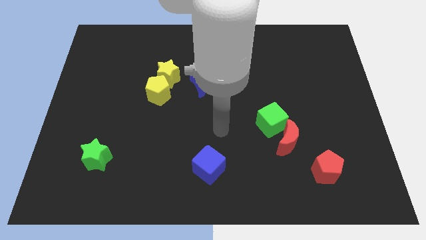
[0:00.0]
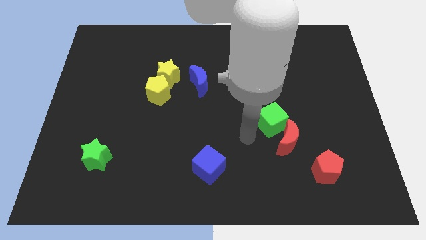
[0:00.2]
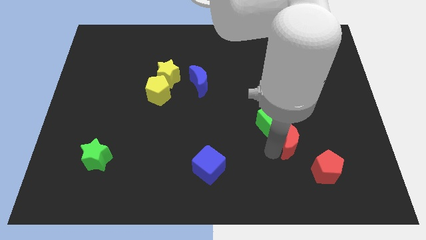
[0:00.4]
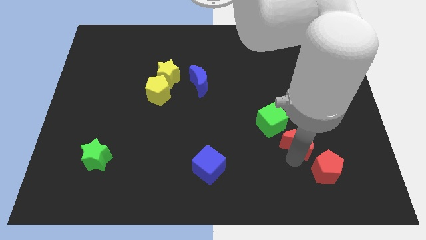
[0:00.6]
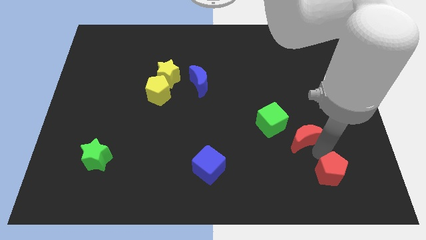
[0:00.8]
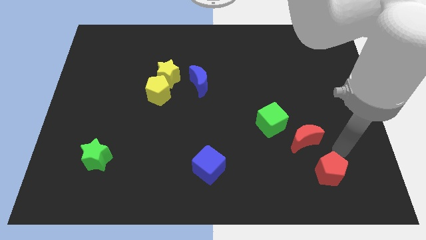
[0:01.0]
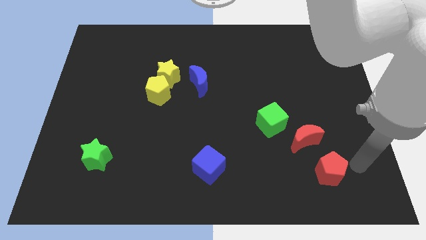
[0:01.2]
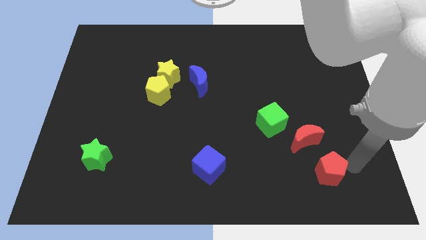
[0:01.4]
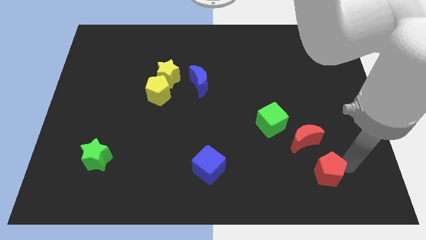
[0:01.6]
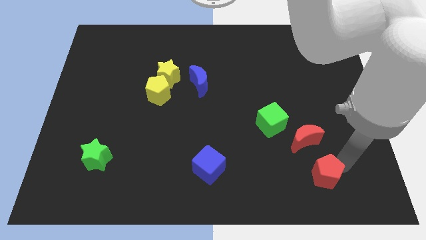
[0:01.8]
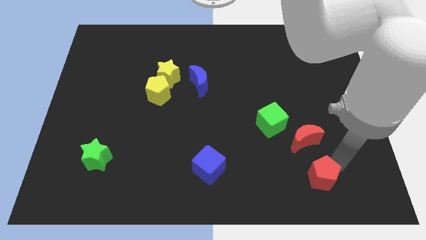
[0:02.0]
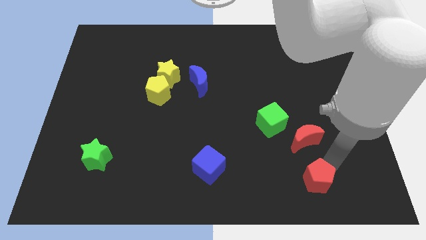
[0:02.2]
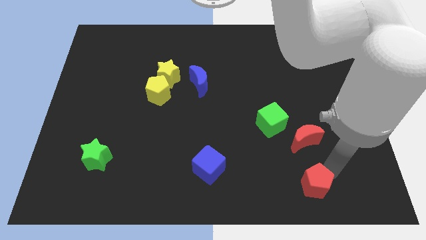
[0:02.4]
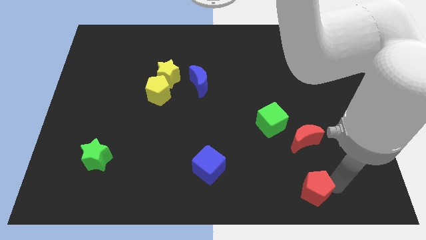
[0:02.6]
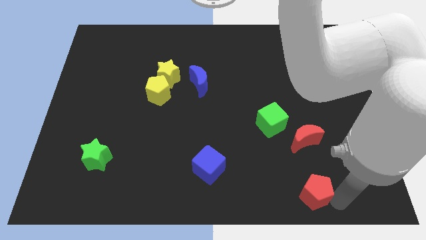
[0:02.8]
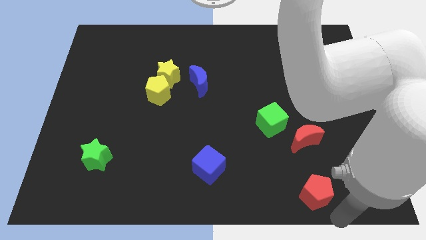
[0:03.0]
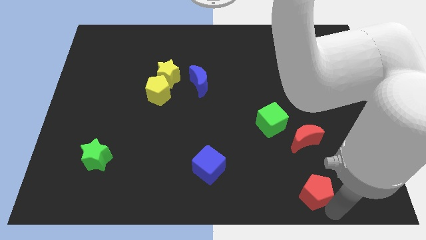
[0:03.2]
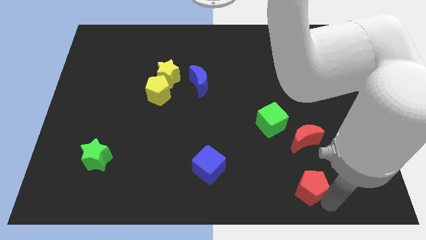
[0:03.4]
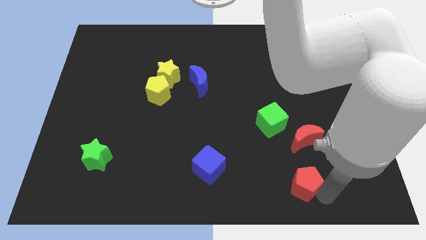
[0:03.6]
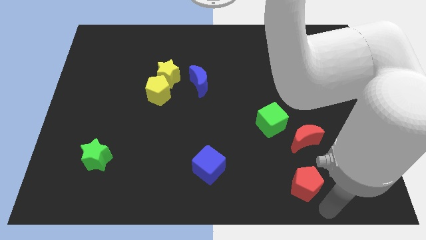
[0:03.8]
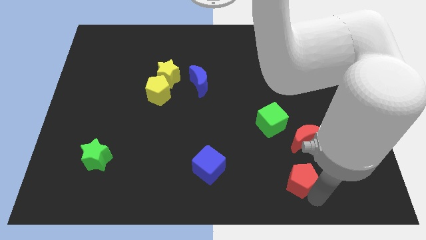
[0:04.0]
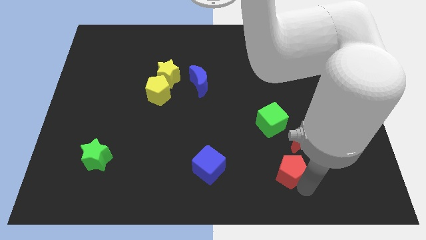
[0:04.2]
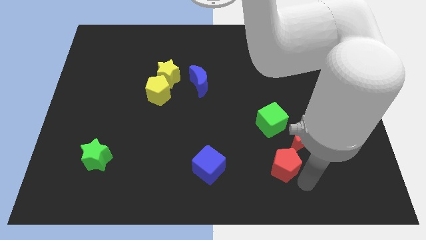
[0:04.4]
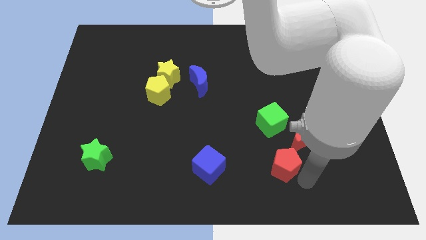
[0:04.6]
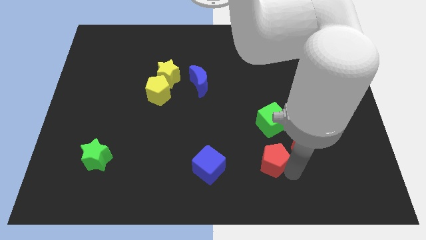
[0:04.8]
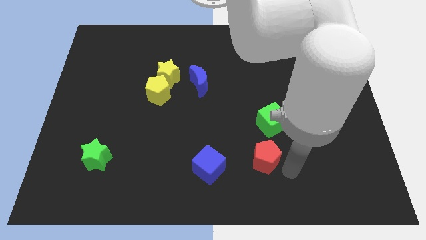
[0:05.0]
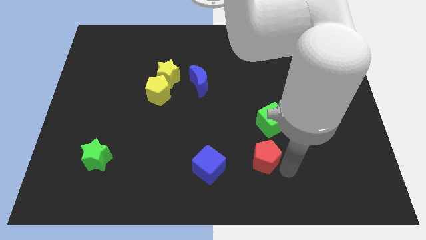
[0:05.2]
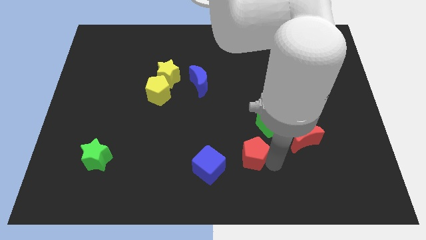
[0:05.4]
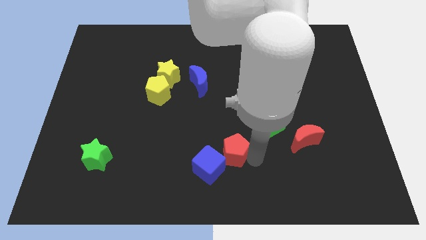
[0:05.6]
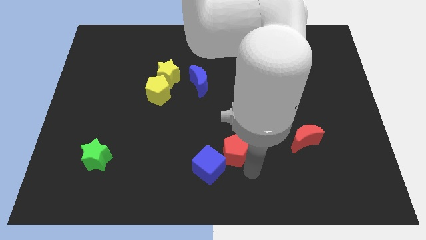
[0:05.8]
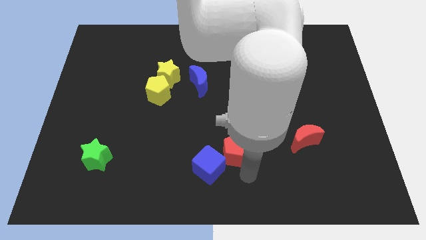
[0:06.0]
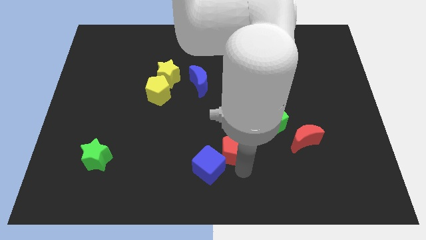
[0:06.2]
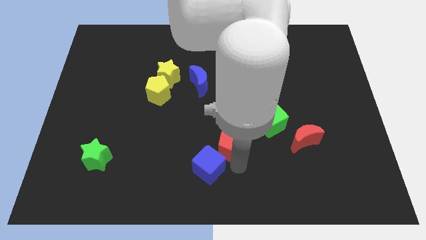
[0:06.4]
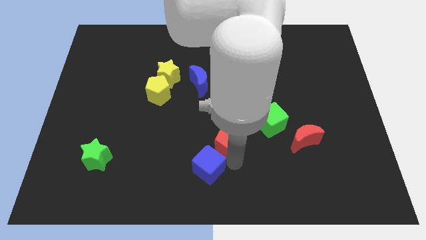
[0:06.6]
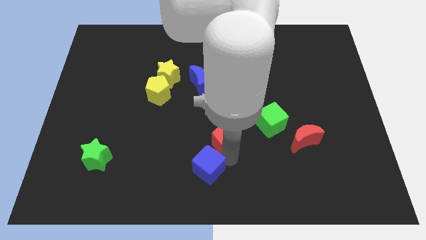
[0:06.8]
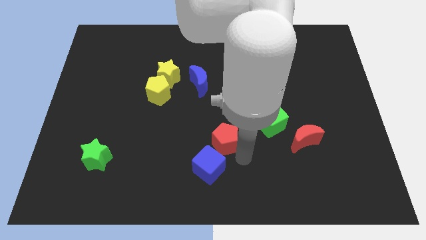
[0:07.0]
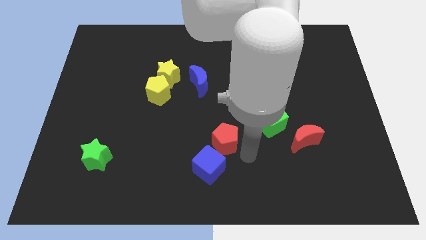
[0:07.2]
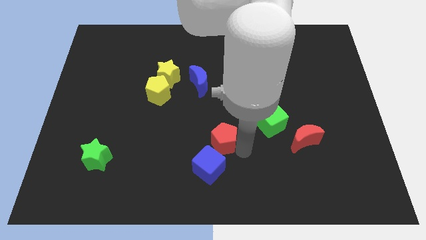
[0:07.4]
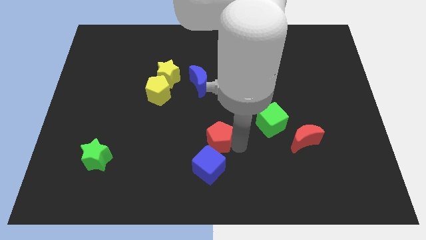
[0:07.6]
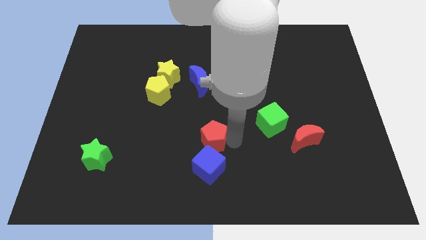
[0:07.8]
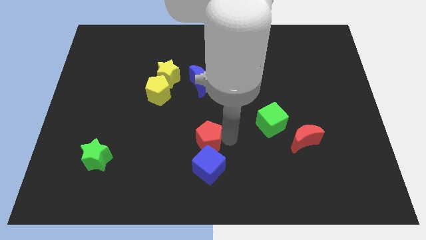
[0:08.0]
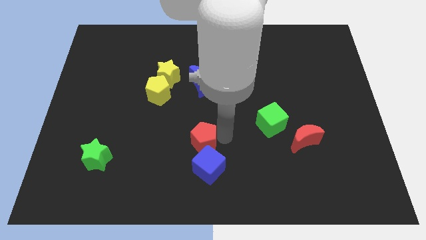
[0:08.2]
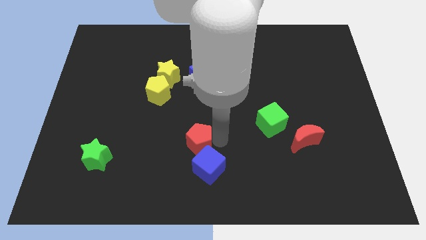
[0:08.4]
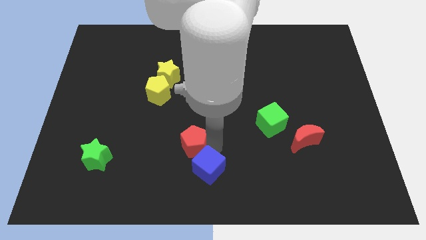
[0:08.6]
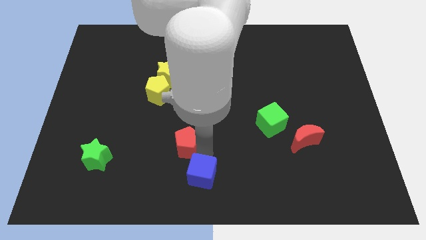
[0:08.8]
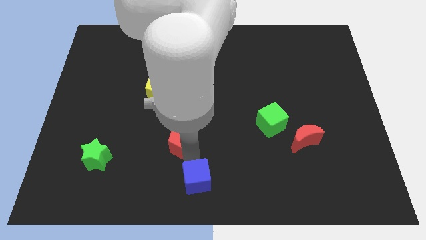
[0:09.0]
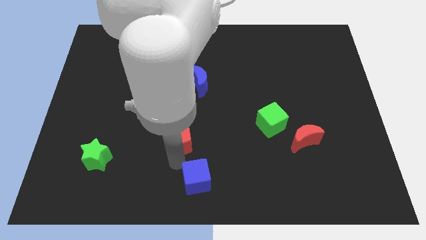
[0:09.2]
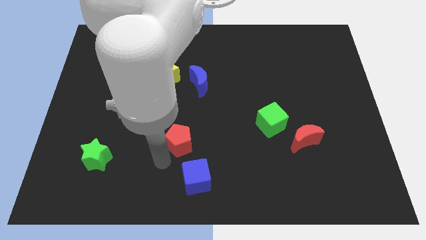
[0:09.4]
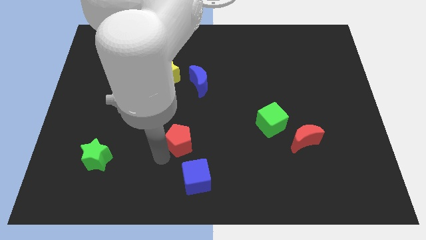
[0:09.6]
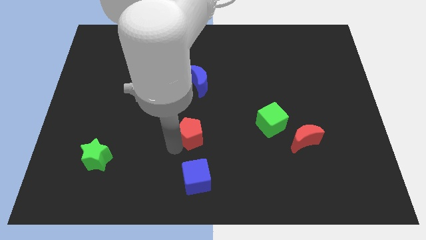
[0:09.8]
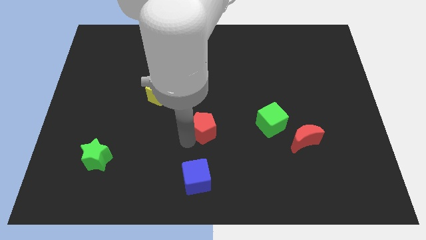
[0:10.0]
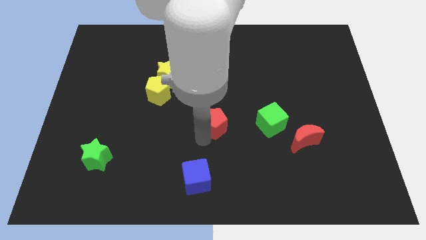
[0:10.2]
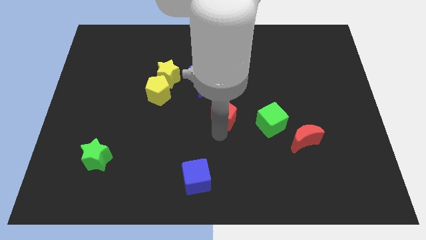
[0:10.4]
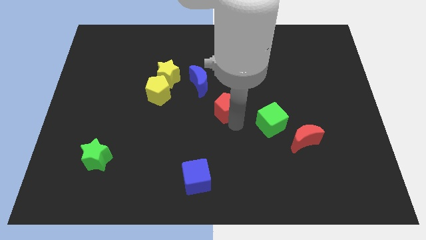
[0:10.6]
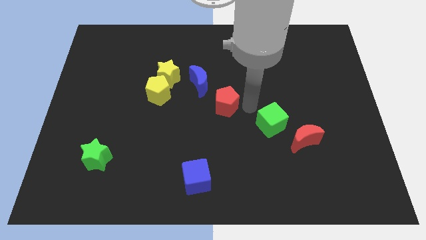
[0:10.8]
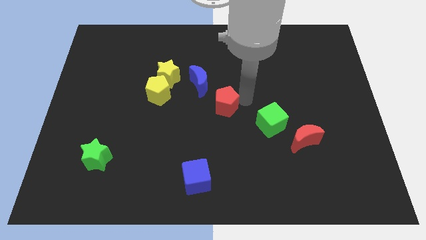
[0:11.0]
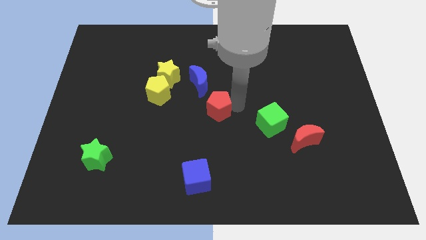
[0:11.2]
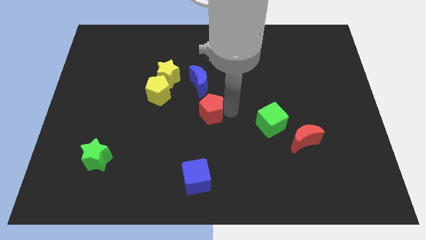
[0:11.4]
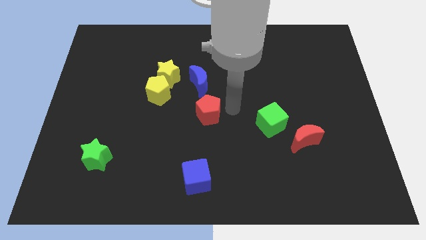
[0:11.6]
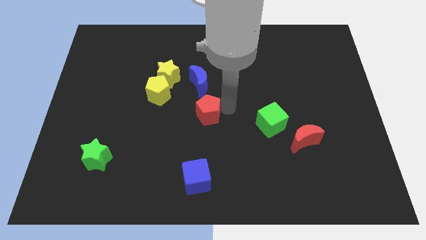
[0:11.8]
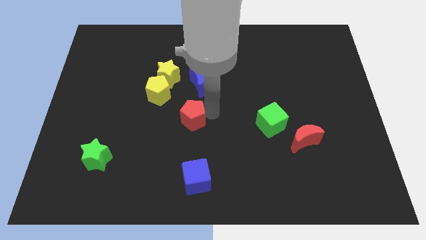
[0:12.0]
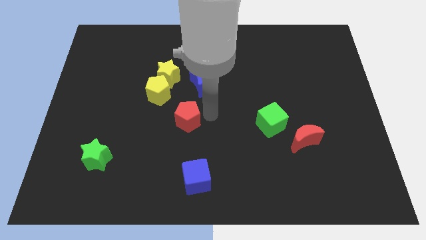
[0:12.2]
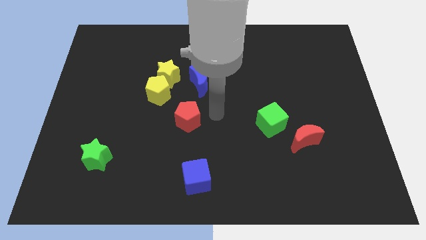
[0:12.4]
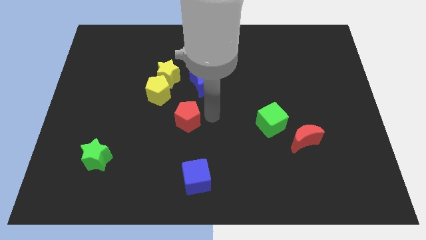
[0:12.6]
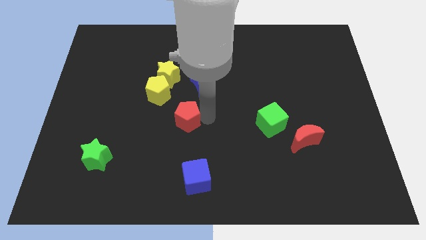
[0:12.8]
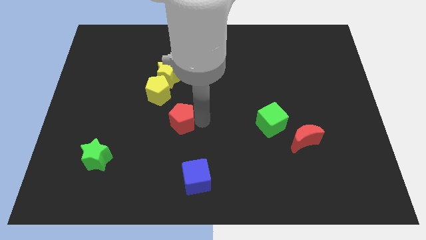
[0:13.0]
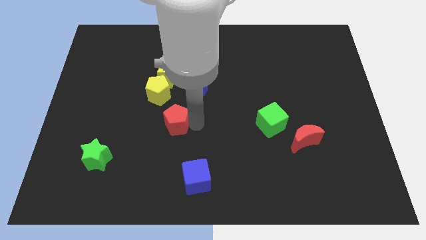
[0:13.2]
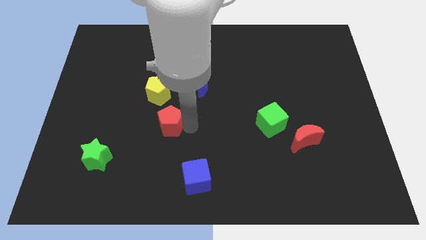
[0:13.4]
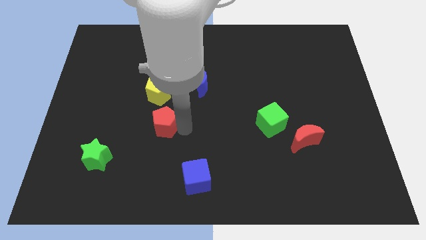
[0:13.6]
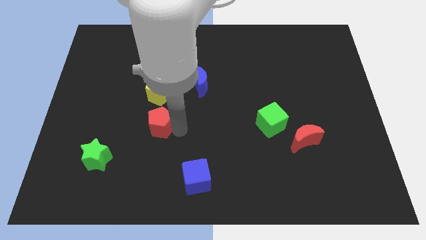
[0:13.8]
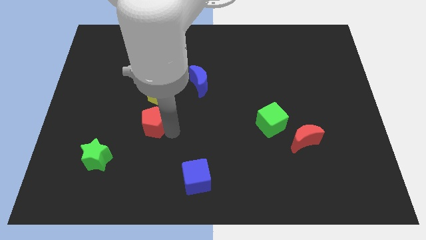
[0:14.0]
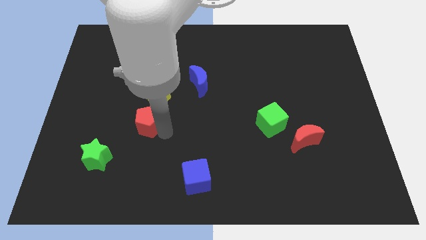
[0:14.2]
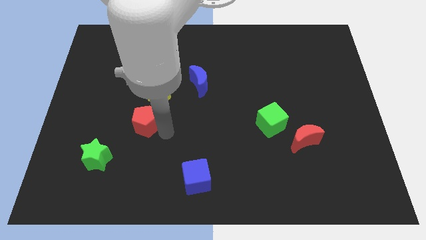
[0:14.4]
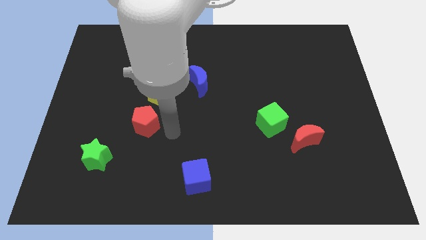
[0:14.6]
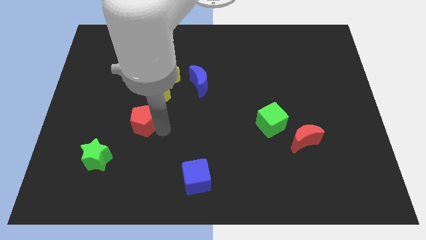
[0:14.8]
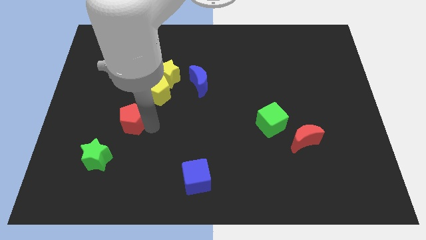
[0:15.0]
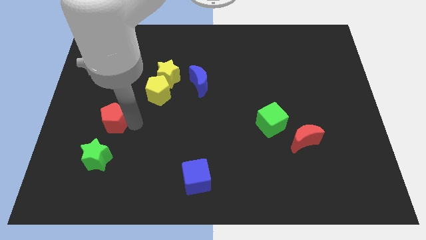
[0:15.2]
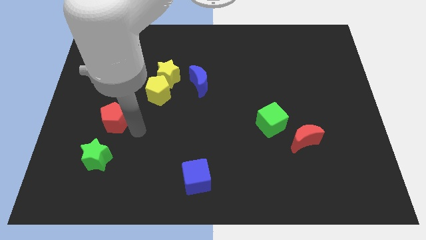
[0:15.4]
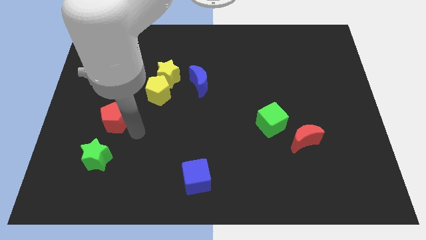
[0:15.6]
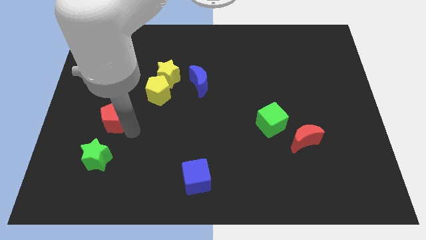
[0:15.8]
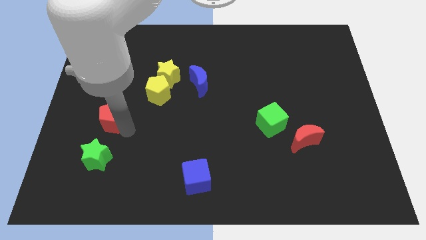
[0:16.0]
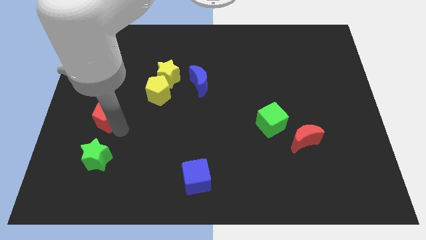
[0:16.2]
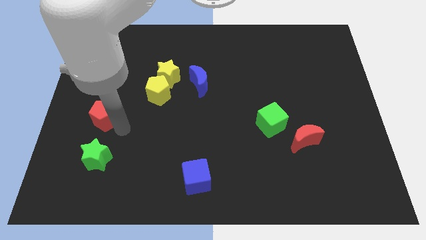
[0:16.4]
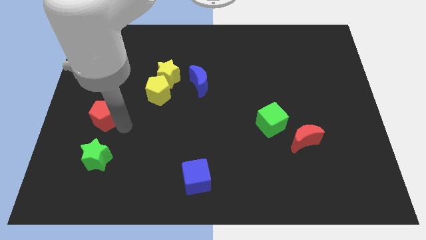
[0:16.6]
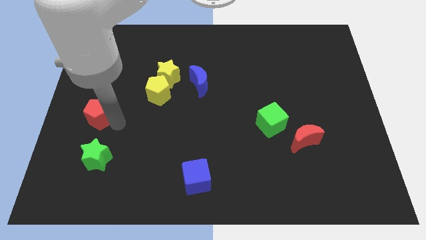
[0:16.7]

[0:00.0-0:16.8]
move the red pentagon to the left side of the board
